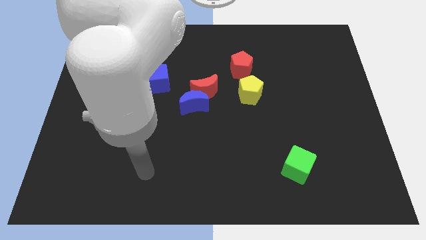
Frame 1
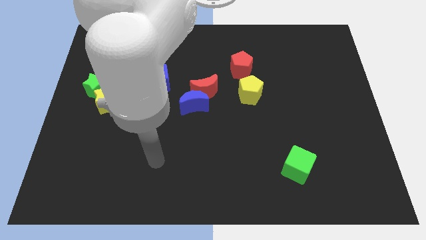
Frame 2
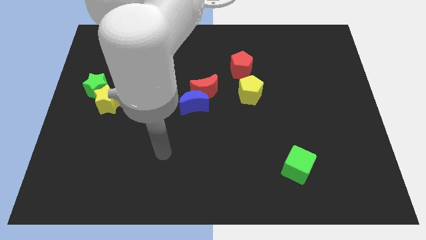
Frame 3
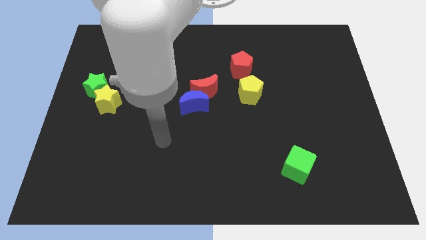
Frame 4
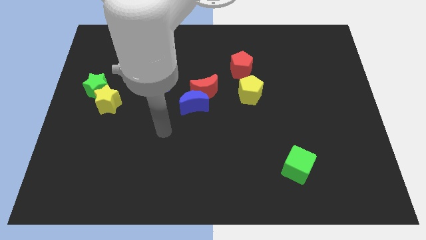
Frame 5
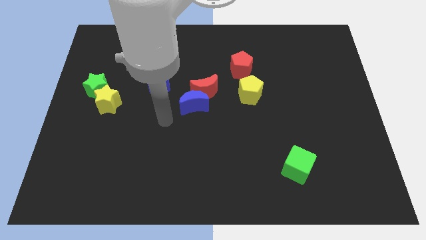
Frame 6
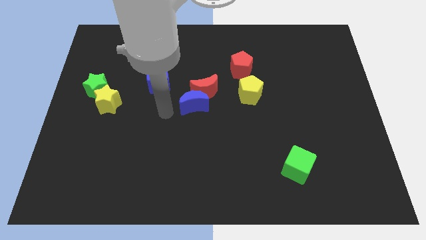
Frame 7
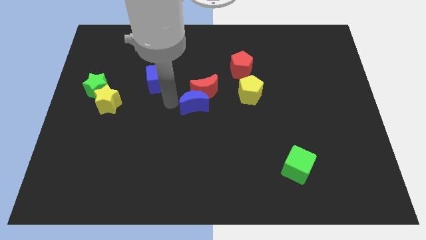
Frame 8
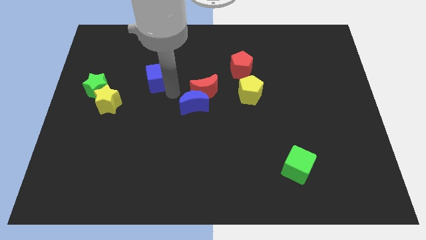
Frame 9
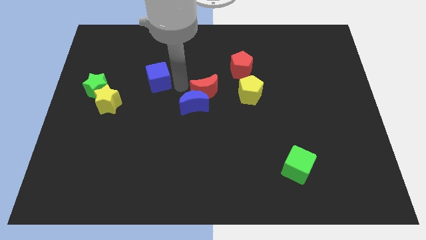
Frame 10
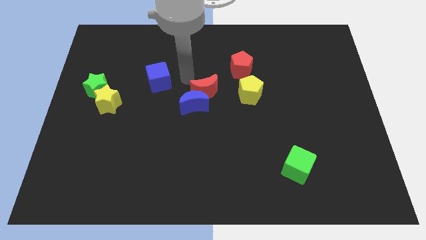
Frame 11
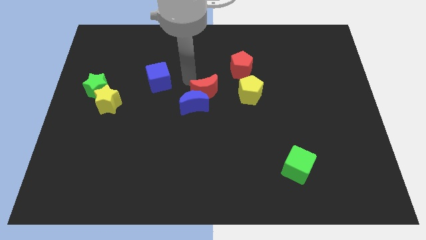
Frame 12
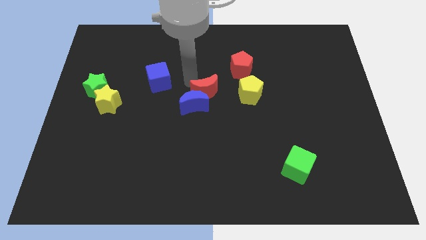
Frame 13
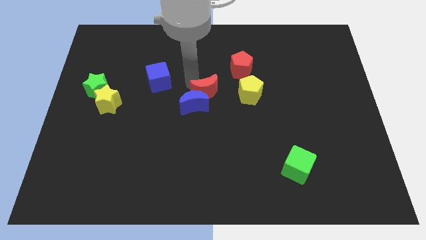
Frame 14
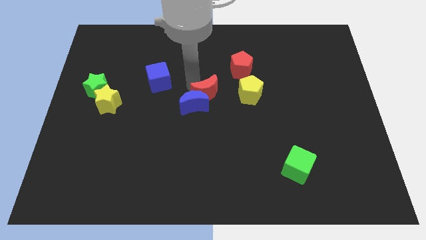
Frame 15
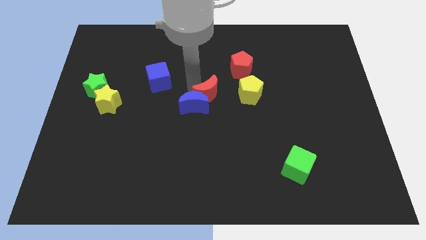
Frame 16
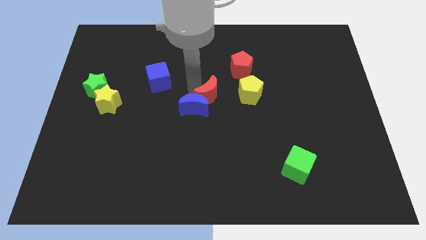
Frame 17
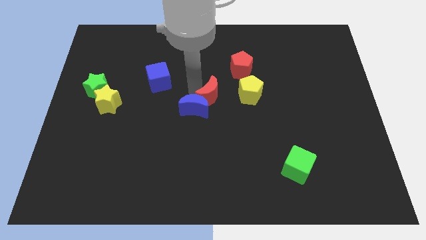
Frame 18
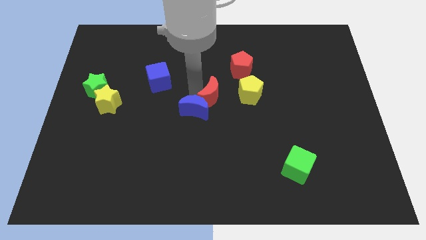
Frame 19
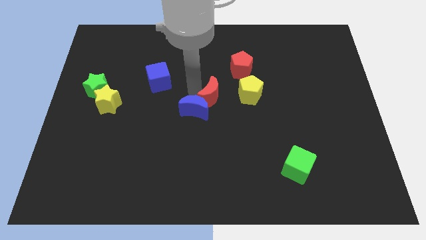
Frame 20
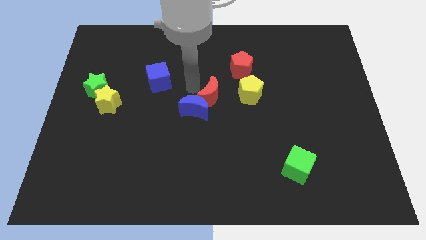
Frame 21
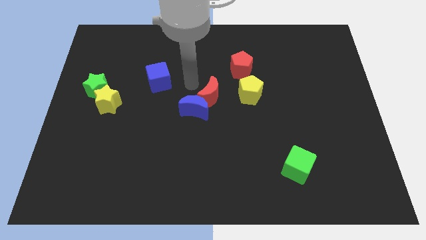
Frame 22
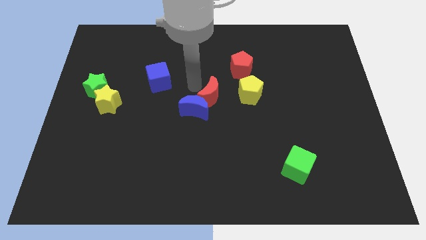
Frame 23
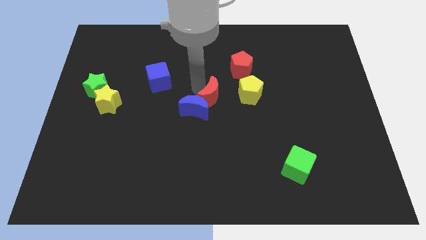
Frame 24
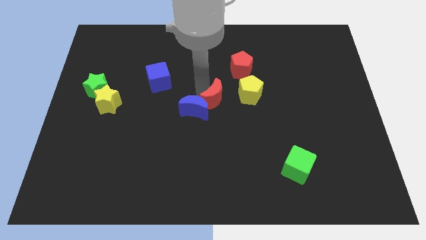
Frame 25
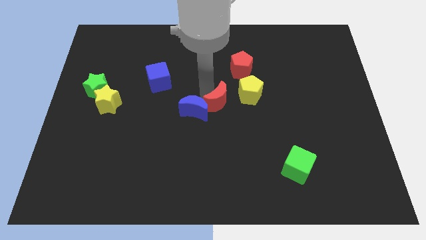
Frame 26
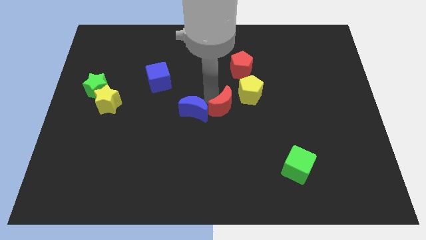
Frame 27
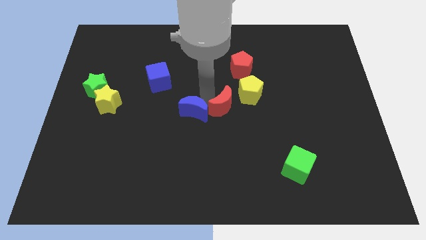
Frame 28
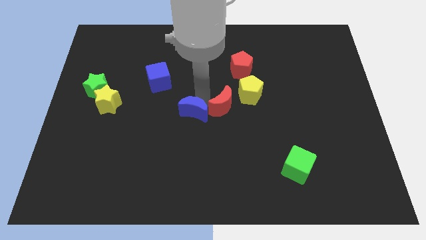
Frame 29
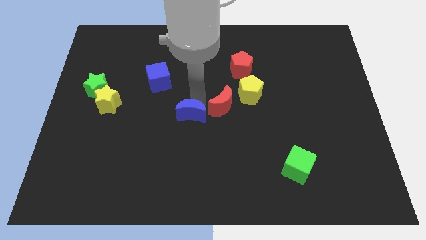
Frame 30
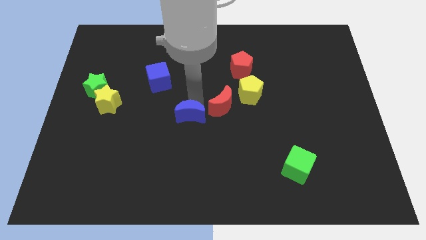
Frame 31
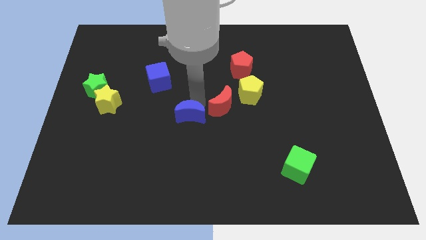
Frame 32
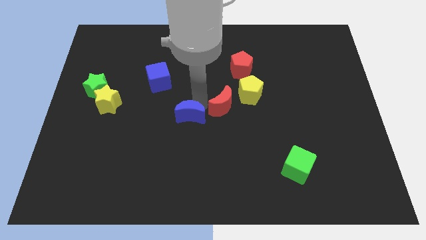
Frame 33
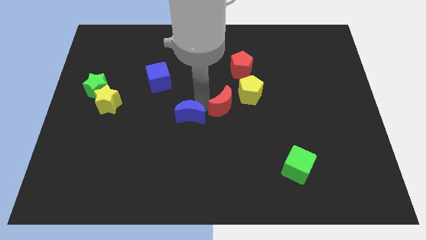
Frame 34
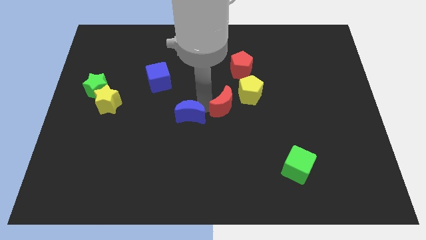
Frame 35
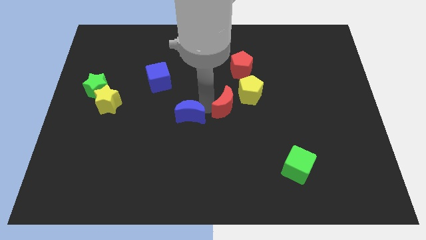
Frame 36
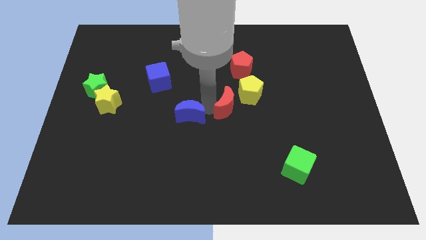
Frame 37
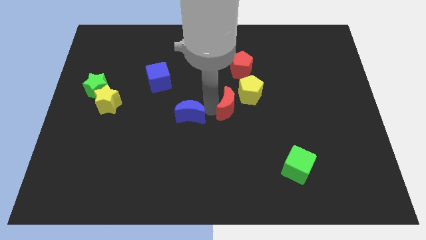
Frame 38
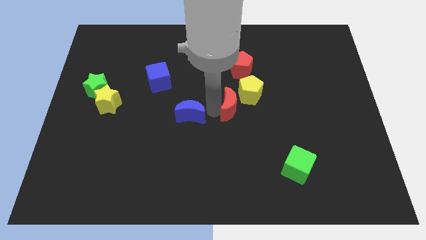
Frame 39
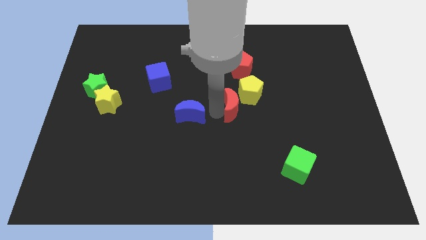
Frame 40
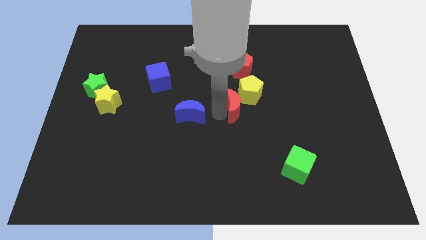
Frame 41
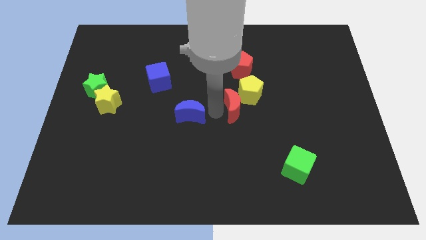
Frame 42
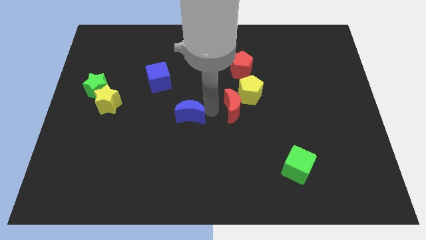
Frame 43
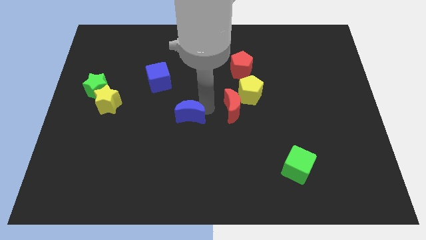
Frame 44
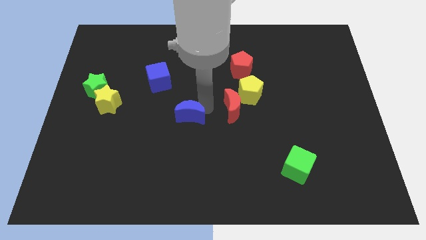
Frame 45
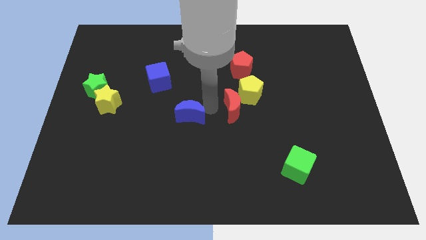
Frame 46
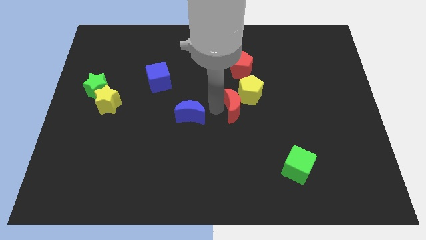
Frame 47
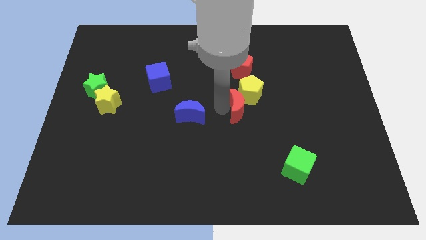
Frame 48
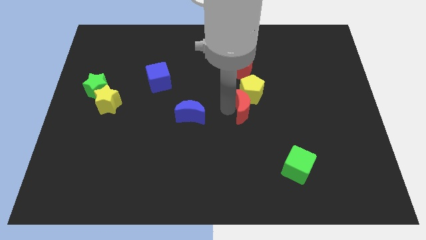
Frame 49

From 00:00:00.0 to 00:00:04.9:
slightly move the red moon to the right

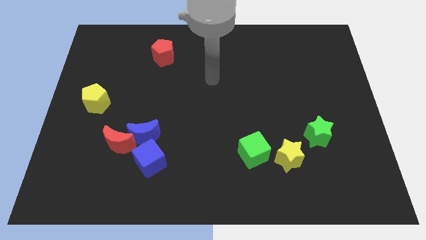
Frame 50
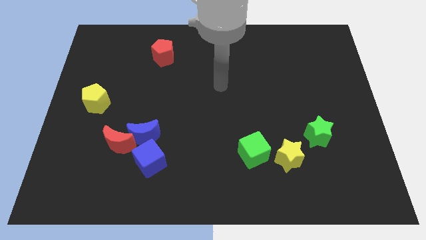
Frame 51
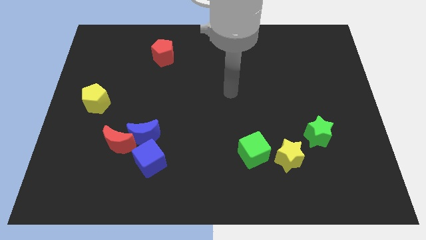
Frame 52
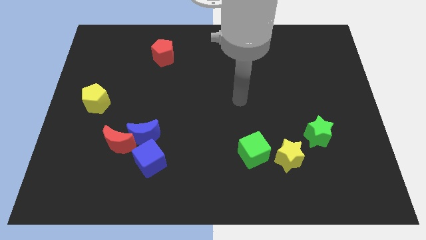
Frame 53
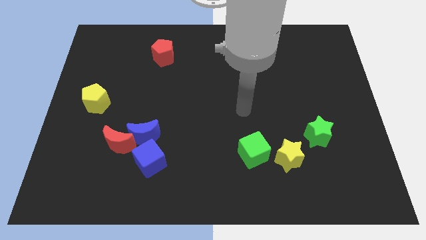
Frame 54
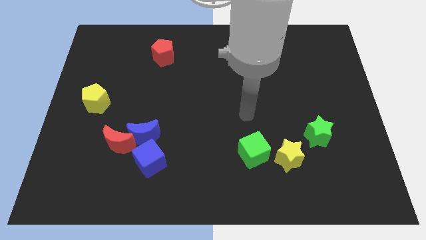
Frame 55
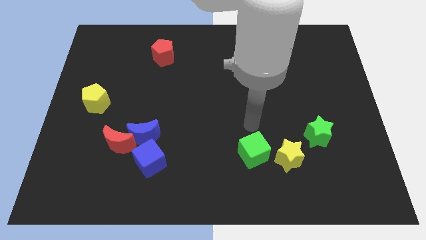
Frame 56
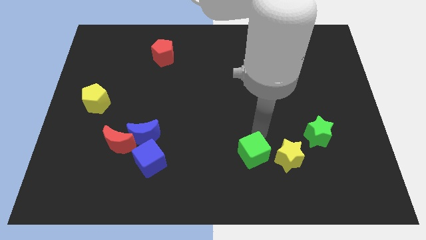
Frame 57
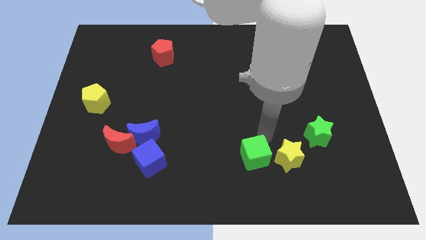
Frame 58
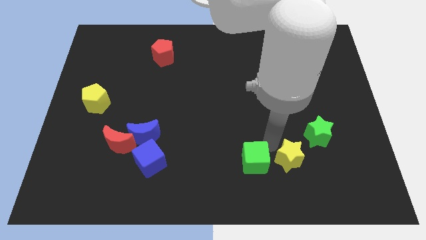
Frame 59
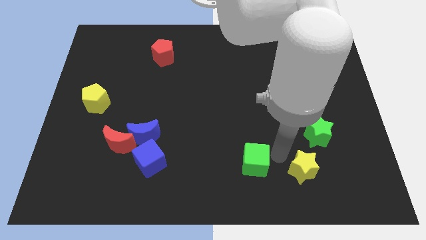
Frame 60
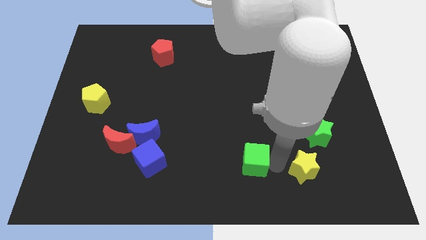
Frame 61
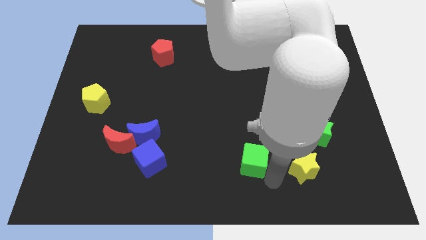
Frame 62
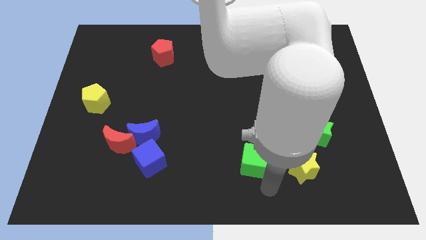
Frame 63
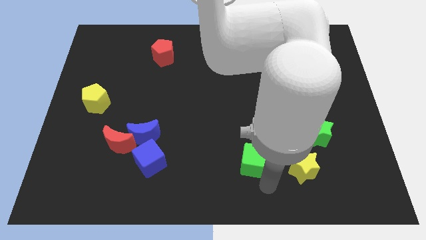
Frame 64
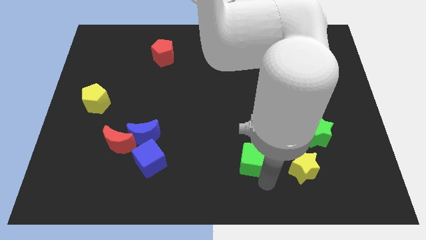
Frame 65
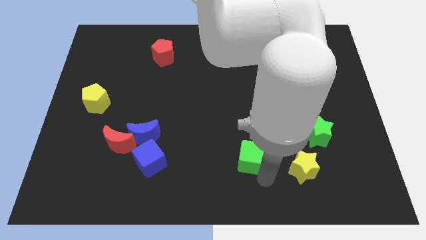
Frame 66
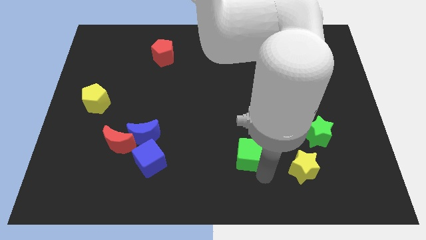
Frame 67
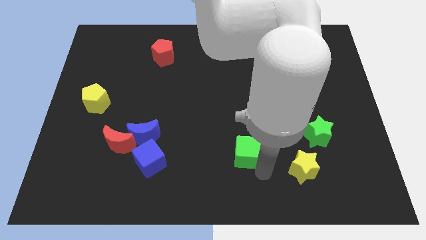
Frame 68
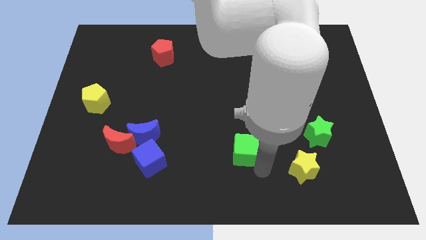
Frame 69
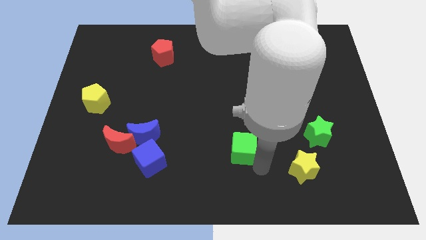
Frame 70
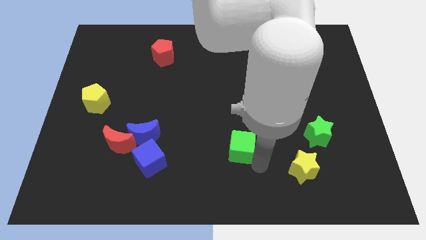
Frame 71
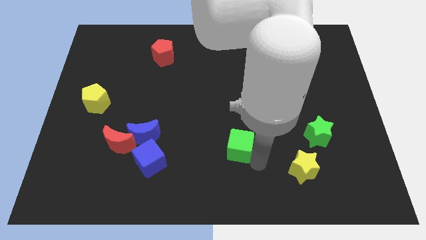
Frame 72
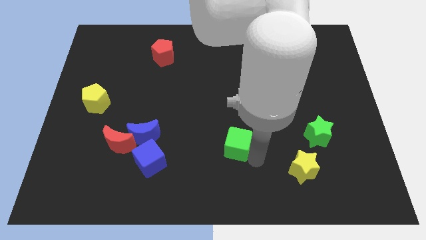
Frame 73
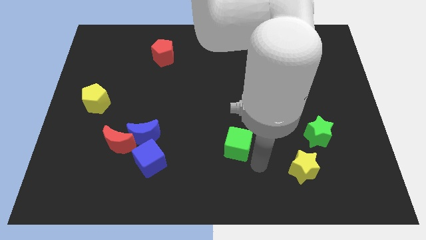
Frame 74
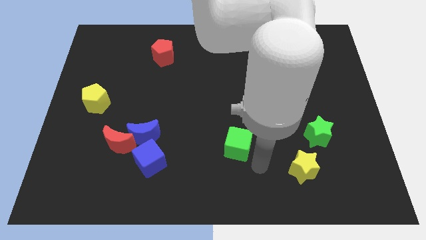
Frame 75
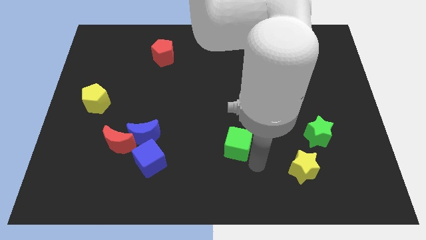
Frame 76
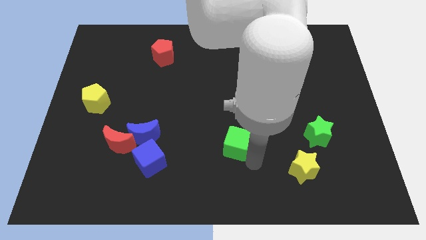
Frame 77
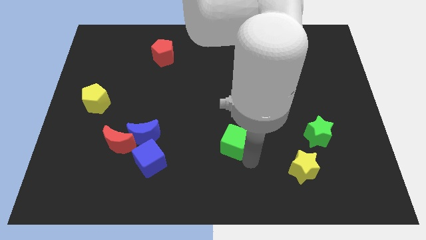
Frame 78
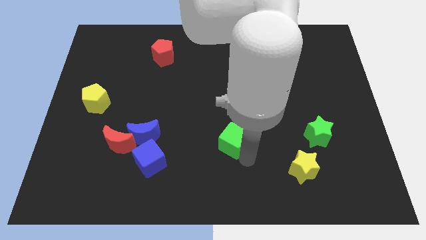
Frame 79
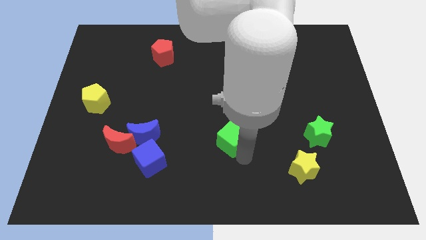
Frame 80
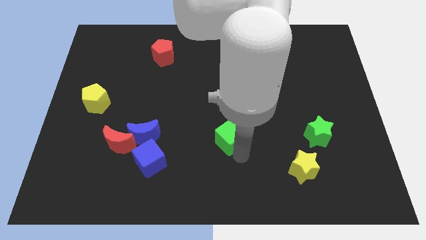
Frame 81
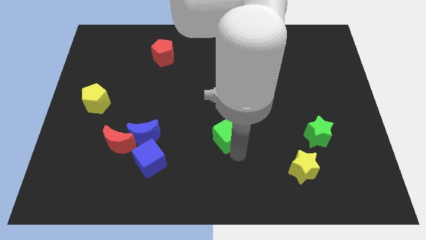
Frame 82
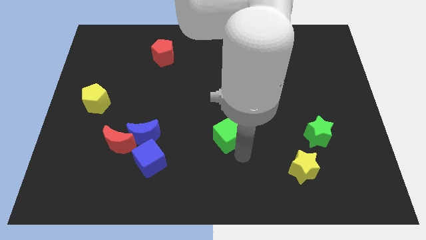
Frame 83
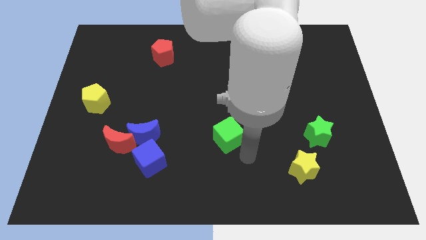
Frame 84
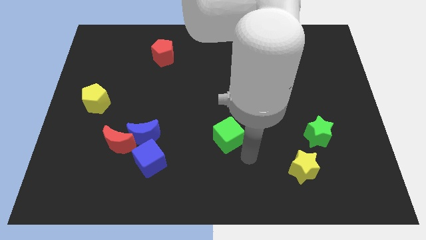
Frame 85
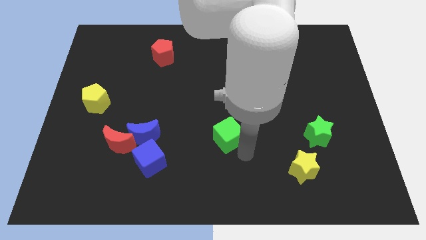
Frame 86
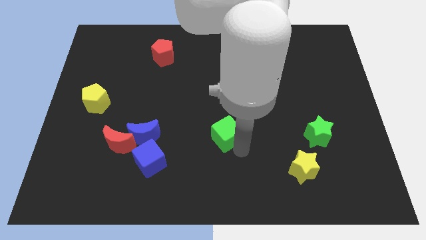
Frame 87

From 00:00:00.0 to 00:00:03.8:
slide the green cube diagonally up and to the left somewhat
